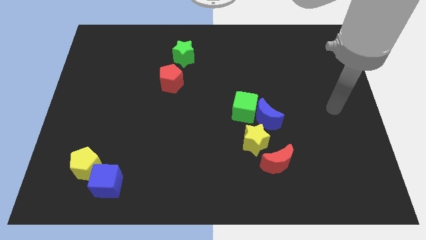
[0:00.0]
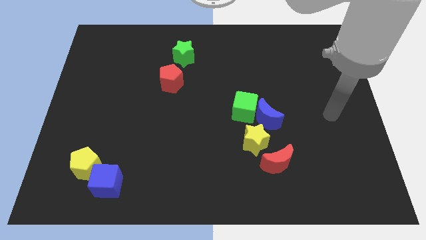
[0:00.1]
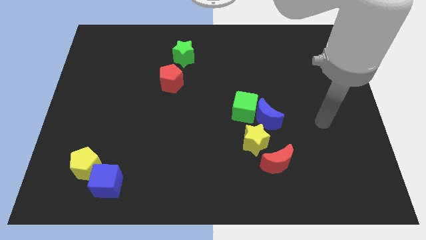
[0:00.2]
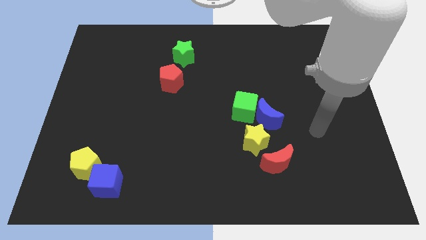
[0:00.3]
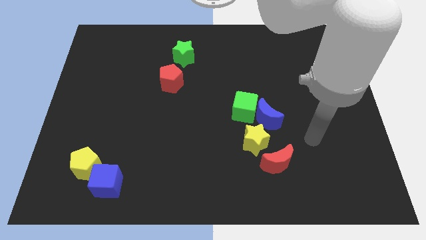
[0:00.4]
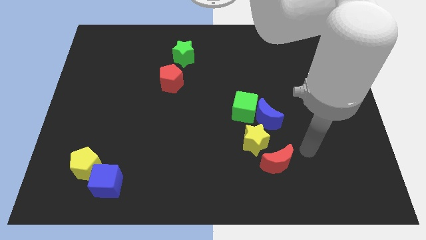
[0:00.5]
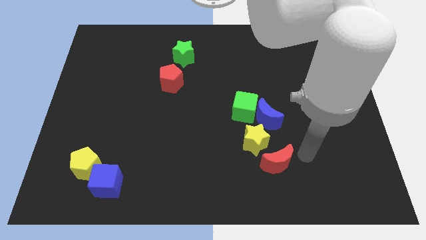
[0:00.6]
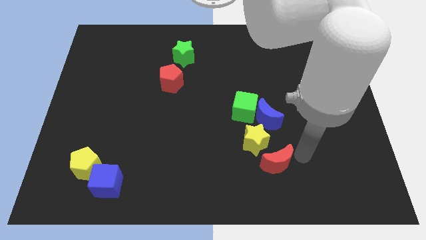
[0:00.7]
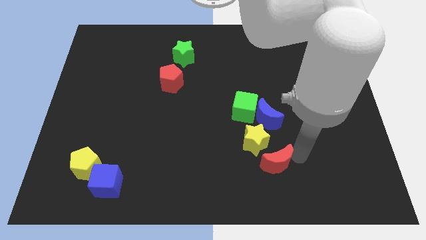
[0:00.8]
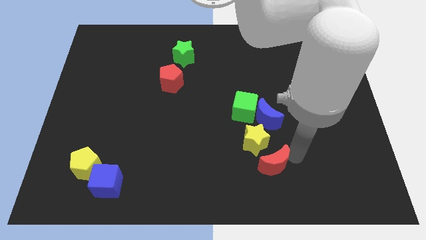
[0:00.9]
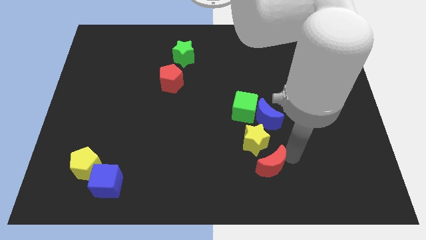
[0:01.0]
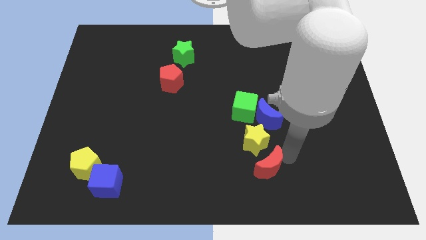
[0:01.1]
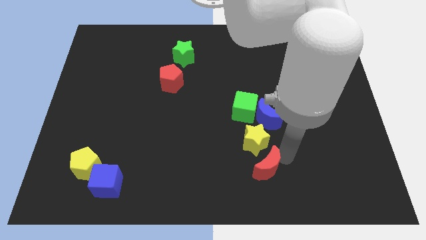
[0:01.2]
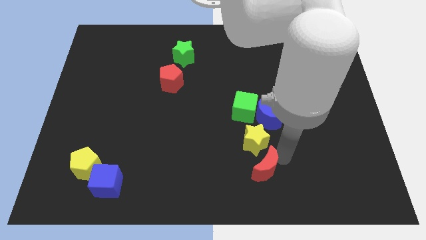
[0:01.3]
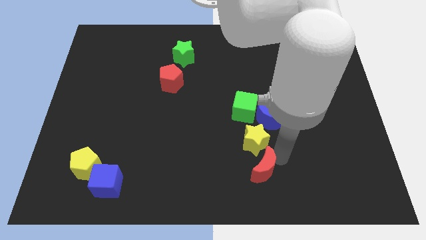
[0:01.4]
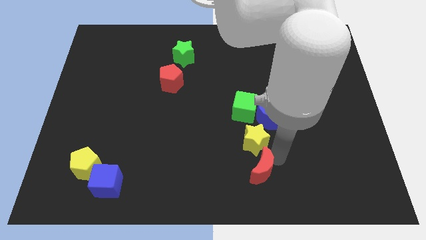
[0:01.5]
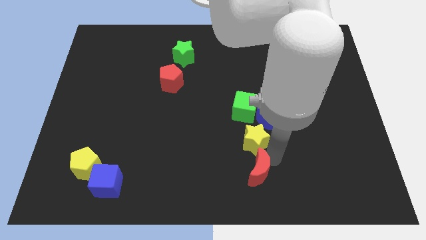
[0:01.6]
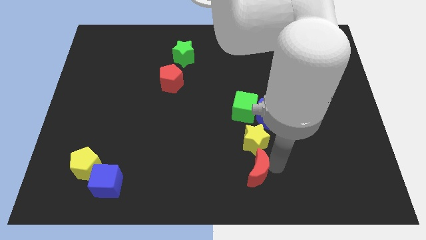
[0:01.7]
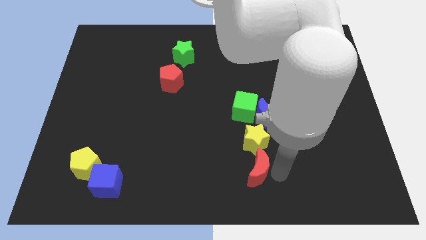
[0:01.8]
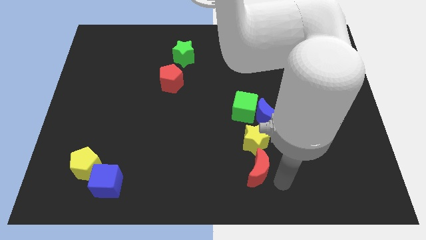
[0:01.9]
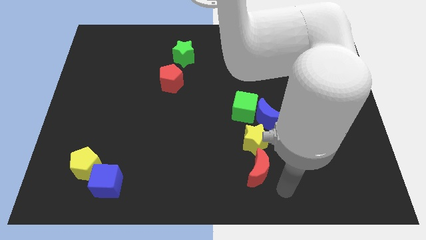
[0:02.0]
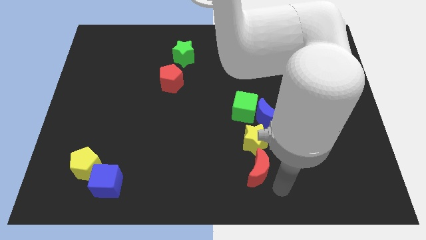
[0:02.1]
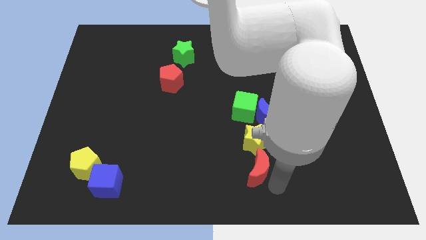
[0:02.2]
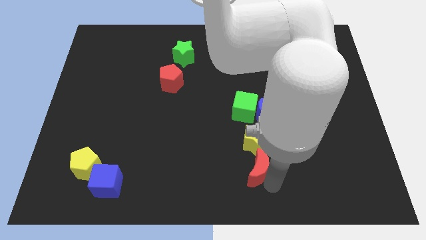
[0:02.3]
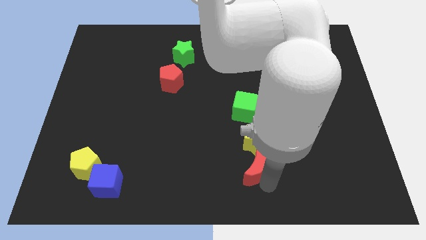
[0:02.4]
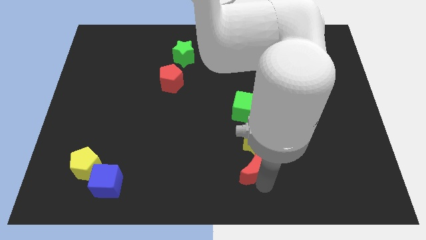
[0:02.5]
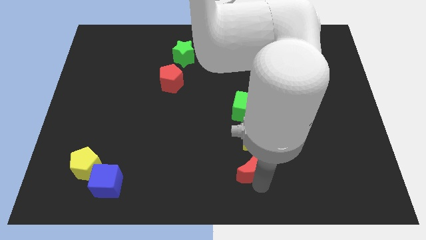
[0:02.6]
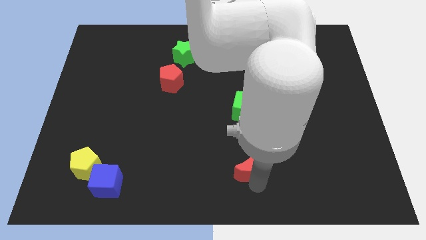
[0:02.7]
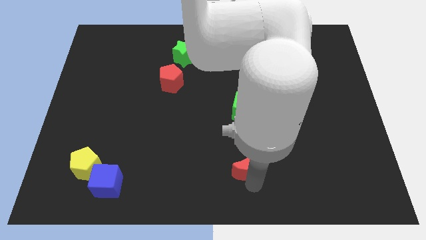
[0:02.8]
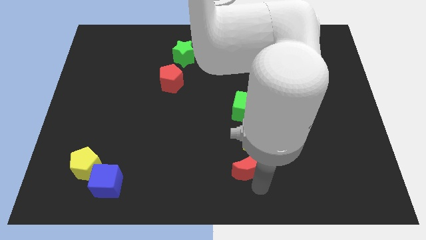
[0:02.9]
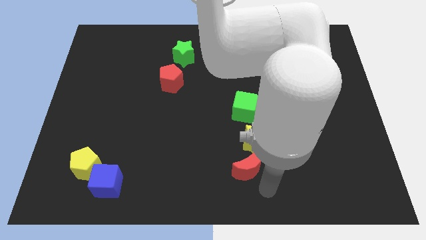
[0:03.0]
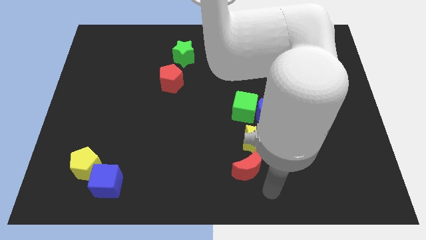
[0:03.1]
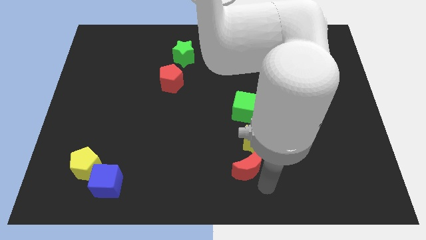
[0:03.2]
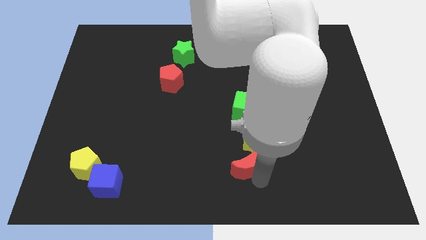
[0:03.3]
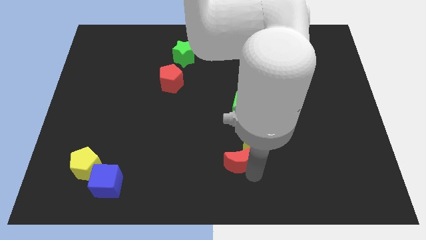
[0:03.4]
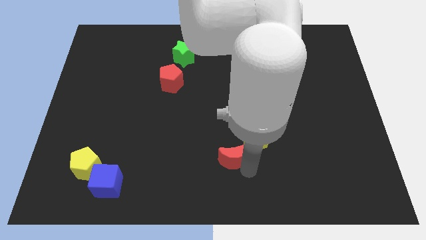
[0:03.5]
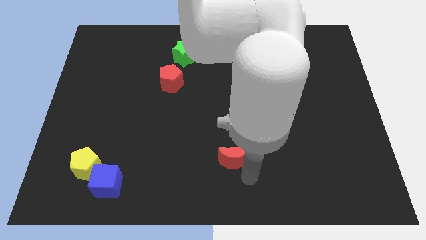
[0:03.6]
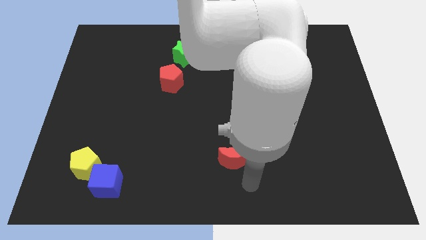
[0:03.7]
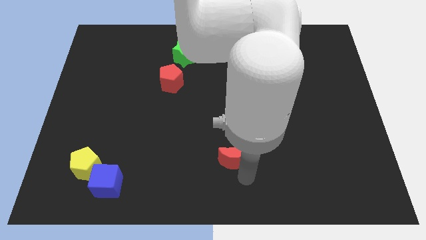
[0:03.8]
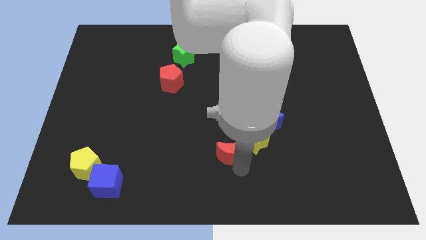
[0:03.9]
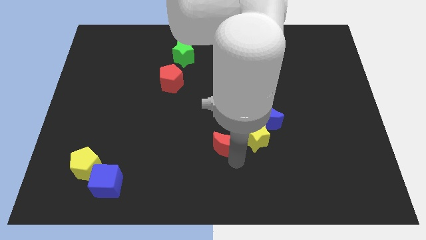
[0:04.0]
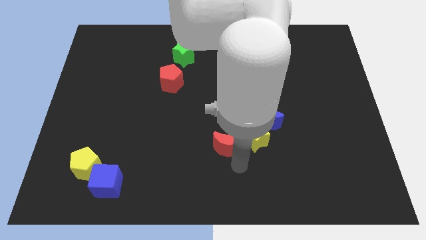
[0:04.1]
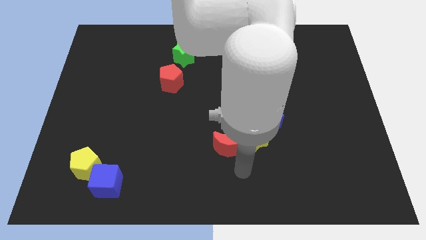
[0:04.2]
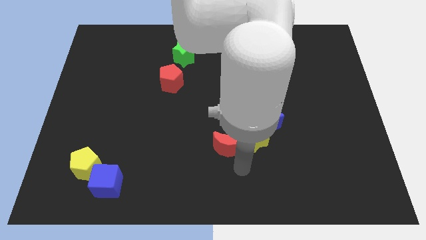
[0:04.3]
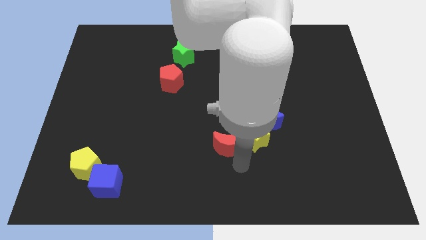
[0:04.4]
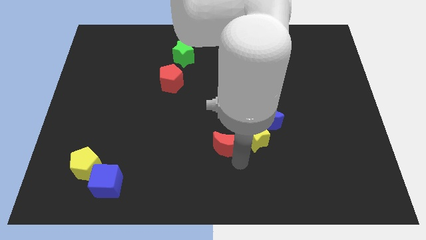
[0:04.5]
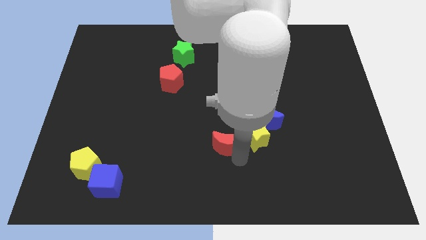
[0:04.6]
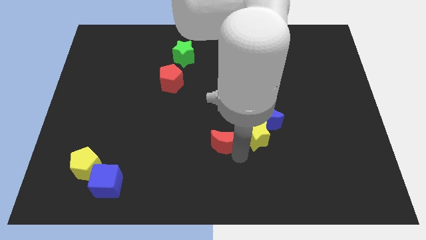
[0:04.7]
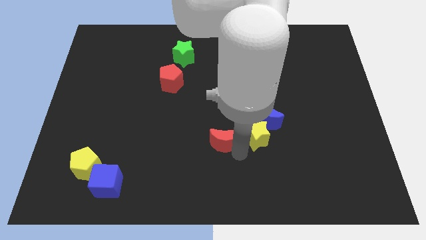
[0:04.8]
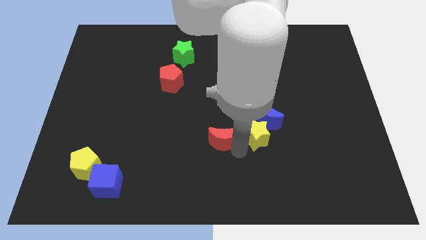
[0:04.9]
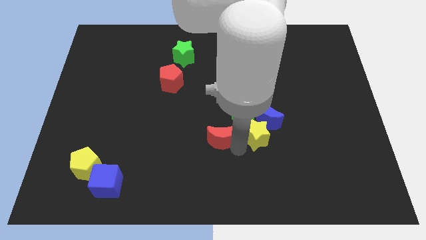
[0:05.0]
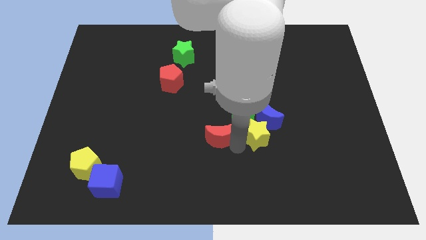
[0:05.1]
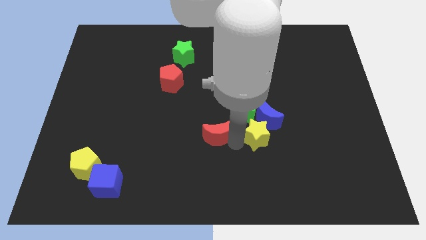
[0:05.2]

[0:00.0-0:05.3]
slide the red moon just left of the blue moon

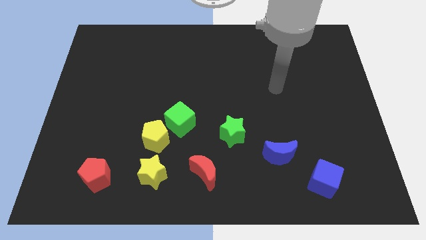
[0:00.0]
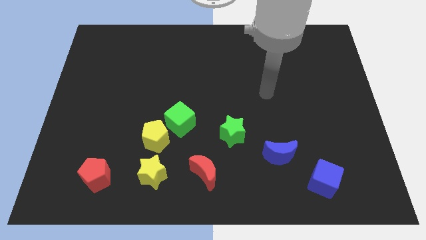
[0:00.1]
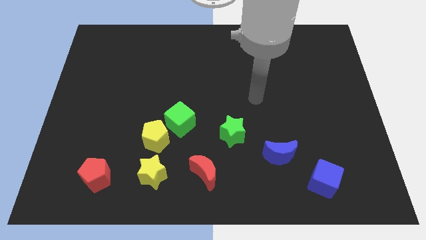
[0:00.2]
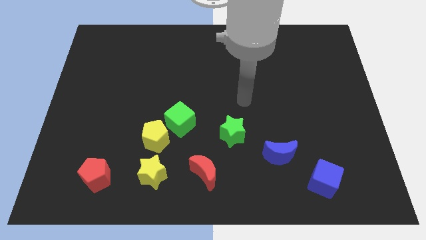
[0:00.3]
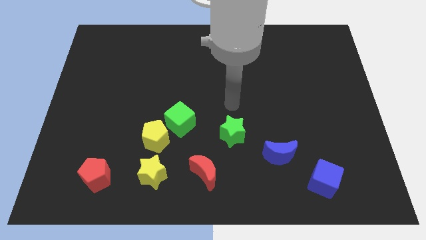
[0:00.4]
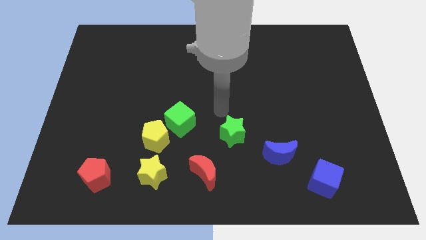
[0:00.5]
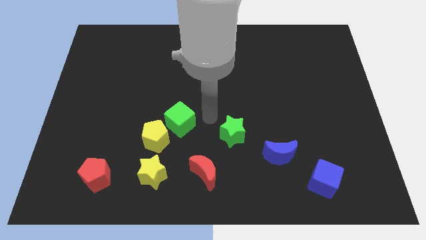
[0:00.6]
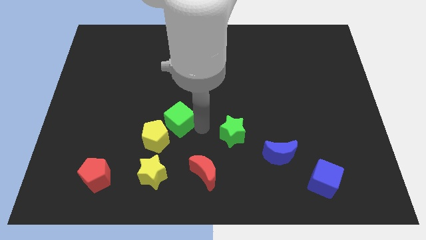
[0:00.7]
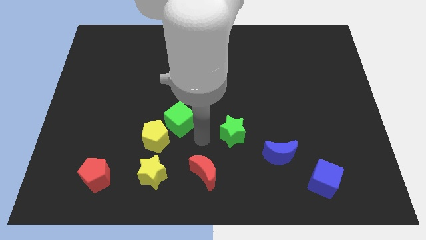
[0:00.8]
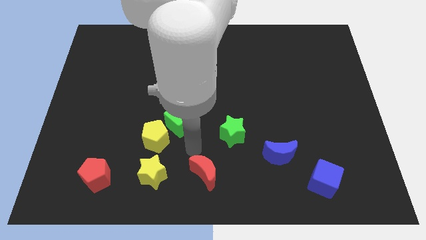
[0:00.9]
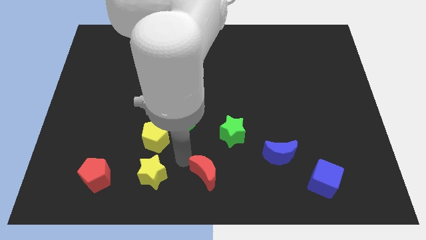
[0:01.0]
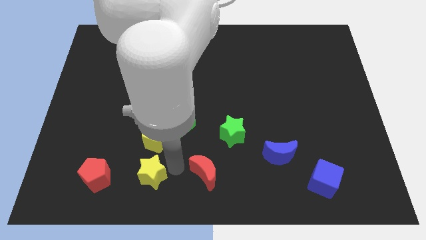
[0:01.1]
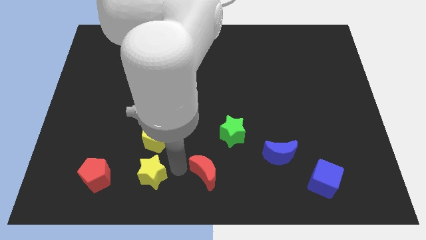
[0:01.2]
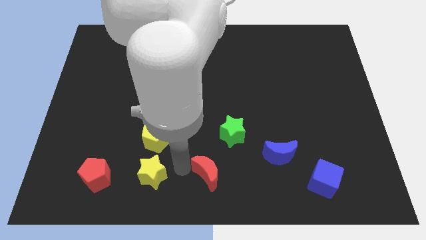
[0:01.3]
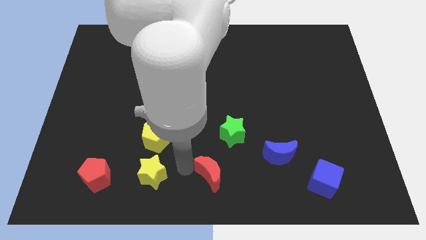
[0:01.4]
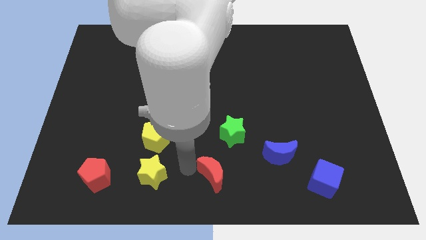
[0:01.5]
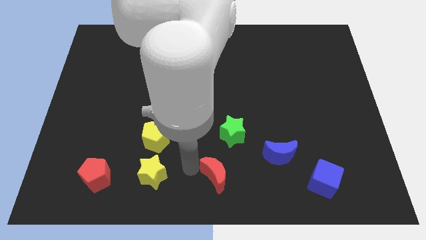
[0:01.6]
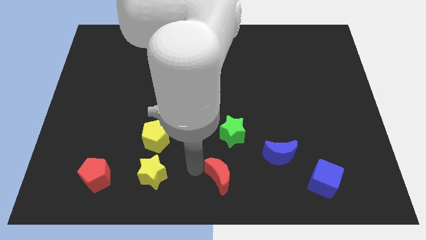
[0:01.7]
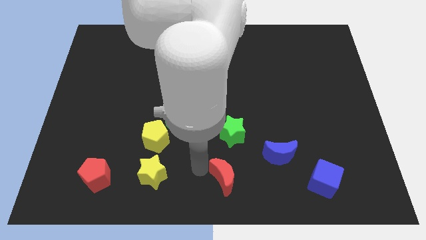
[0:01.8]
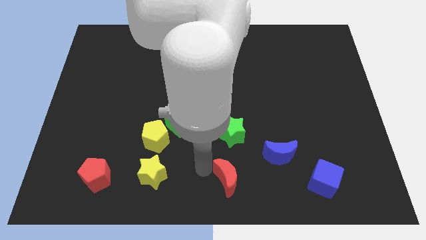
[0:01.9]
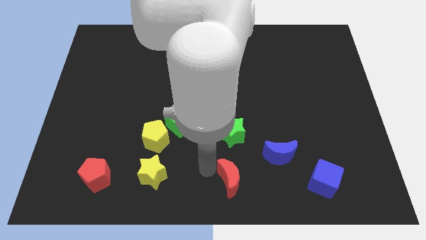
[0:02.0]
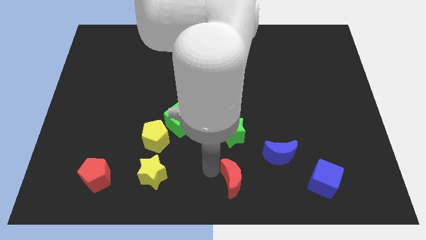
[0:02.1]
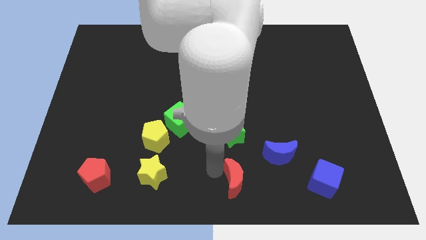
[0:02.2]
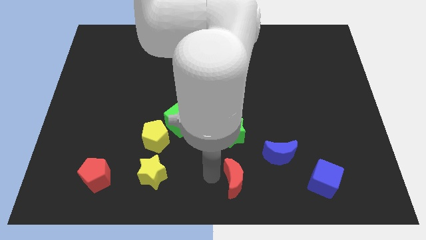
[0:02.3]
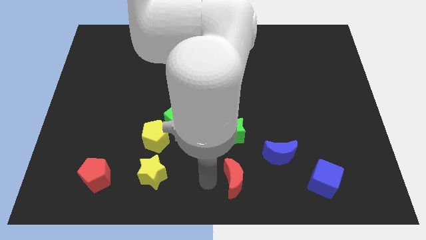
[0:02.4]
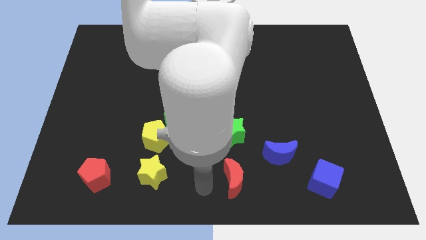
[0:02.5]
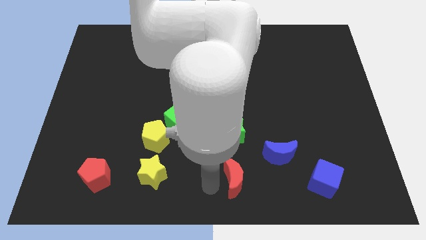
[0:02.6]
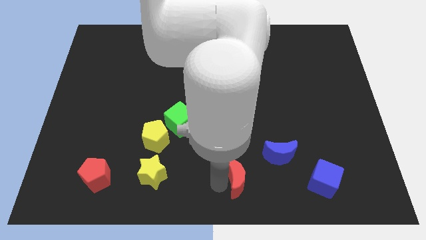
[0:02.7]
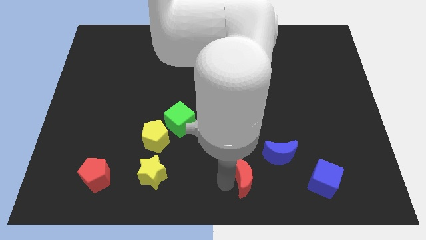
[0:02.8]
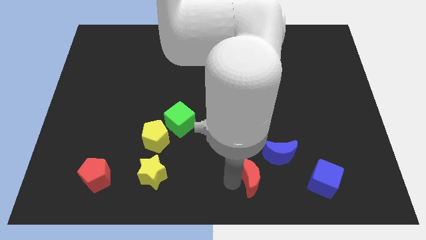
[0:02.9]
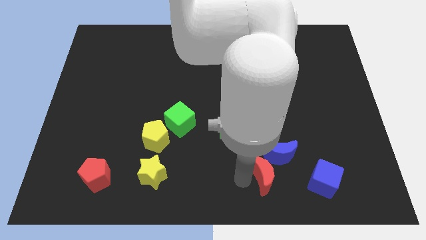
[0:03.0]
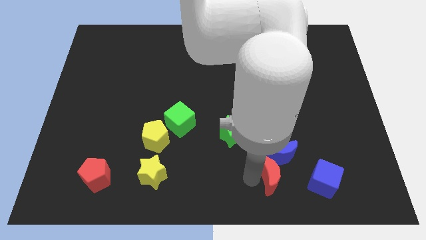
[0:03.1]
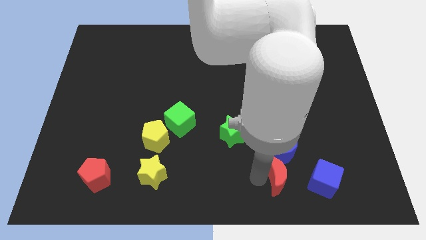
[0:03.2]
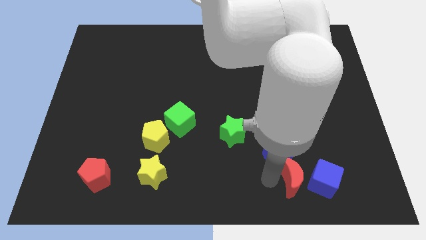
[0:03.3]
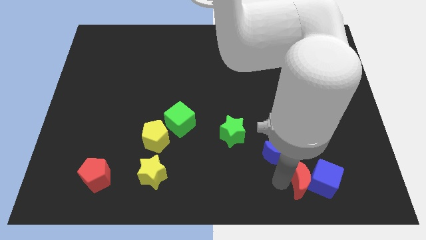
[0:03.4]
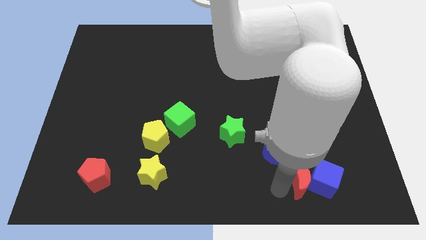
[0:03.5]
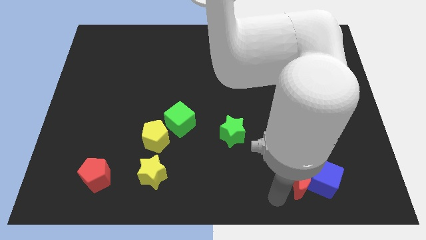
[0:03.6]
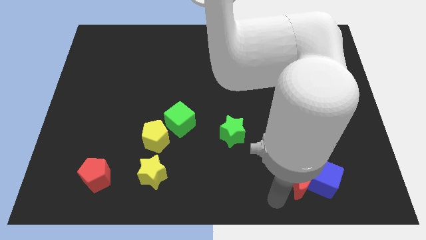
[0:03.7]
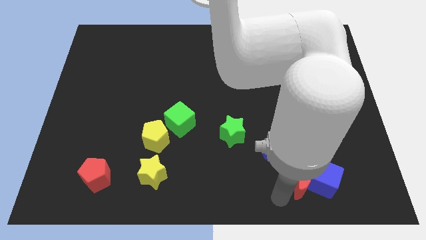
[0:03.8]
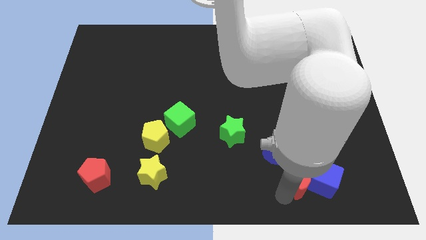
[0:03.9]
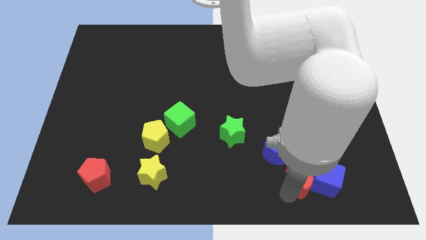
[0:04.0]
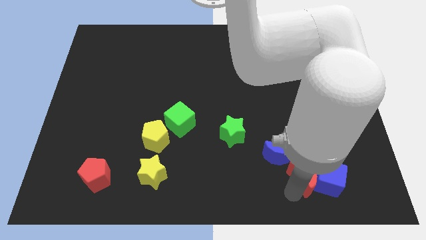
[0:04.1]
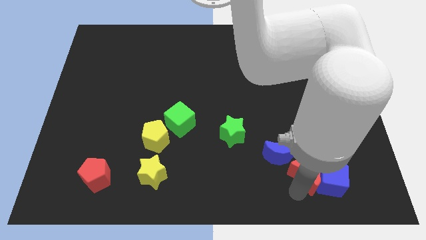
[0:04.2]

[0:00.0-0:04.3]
move the red moon just right of the blue moon
